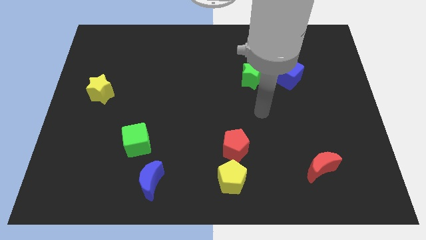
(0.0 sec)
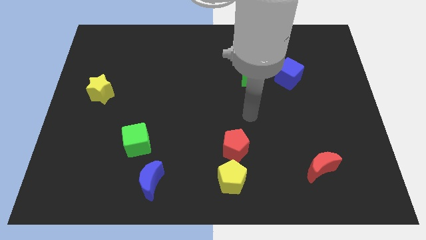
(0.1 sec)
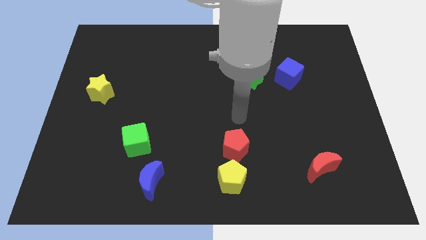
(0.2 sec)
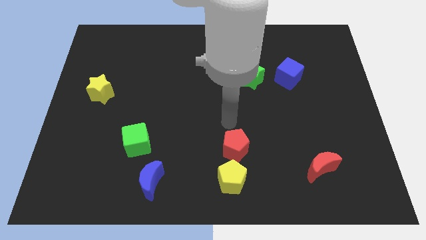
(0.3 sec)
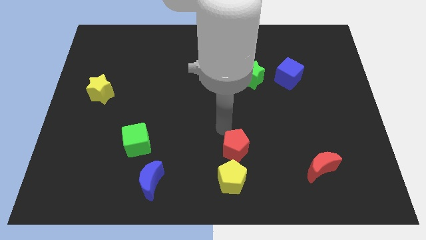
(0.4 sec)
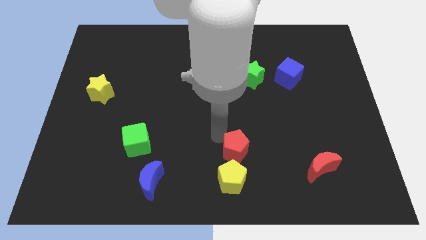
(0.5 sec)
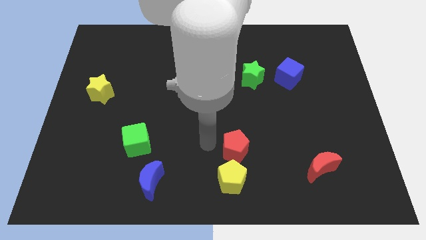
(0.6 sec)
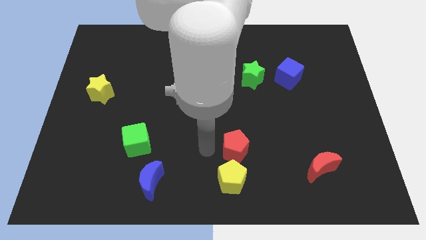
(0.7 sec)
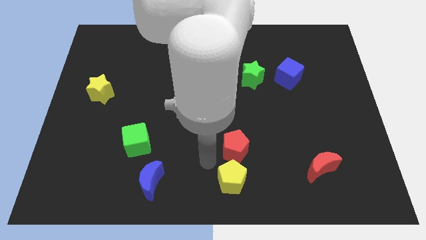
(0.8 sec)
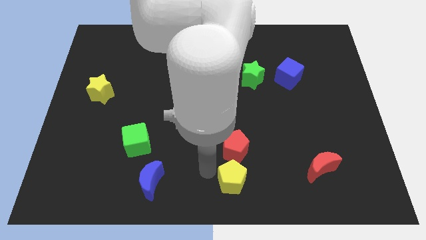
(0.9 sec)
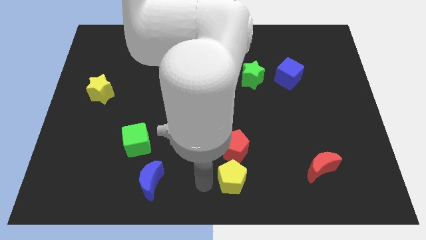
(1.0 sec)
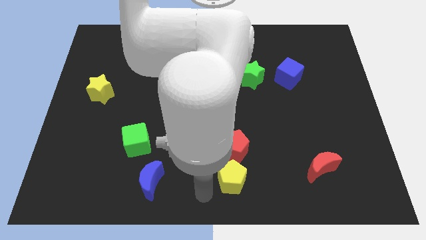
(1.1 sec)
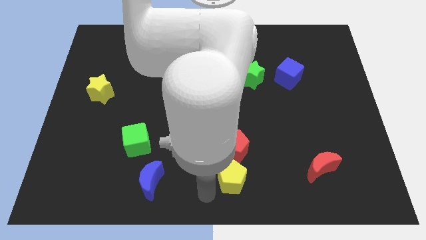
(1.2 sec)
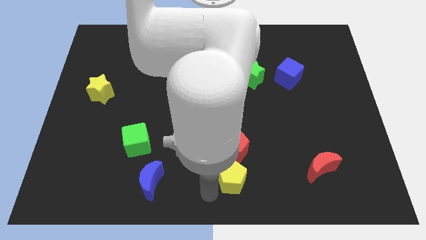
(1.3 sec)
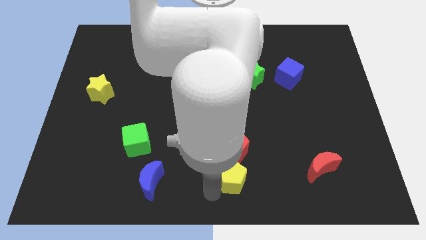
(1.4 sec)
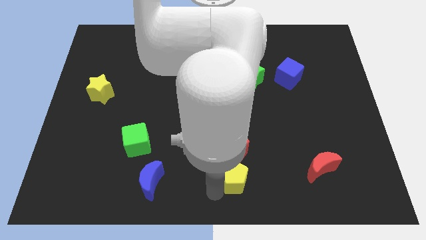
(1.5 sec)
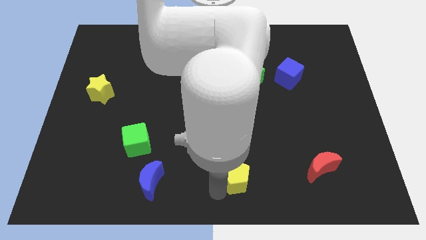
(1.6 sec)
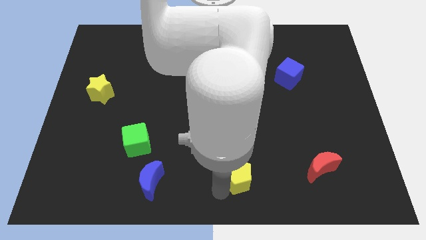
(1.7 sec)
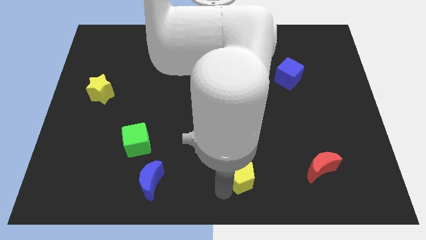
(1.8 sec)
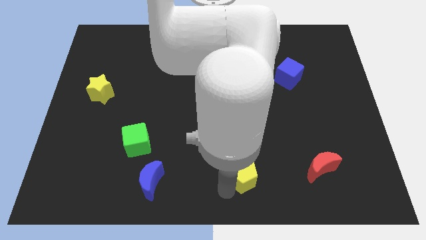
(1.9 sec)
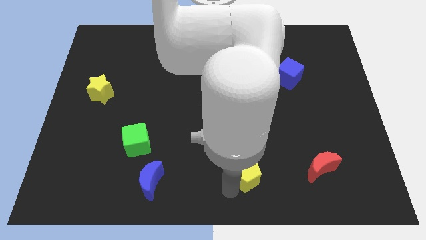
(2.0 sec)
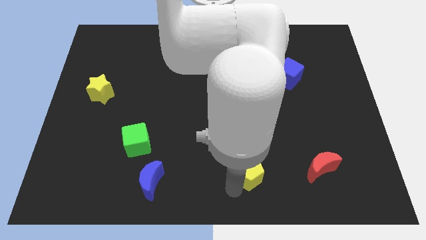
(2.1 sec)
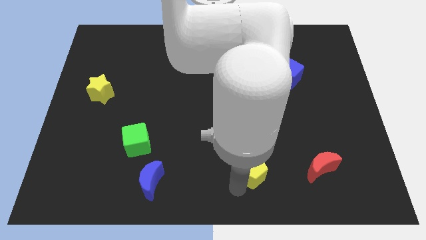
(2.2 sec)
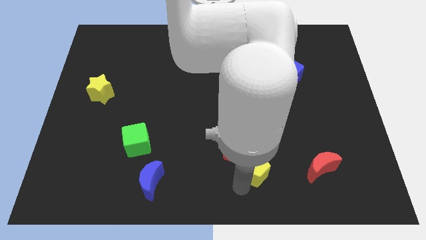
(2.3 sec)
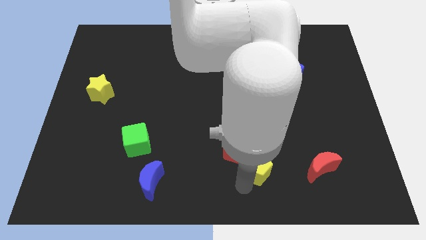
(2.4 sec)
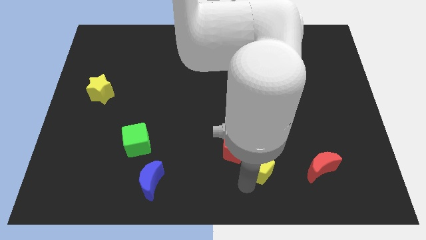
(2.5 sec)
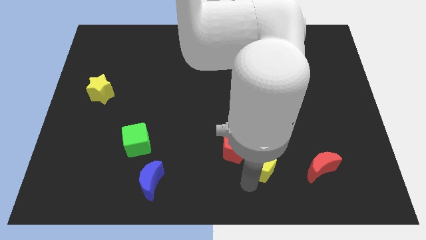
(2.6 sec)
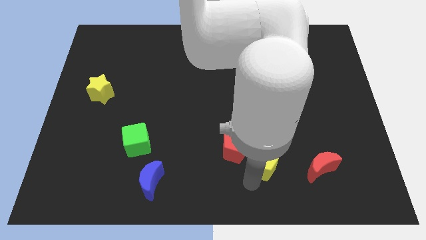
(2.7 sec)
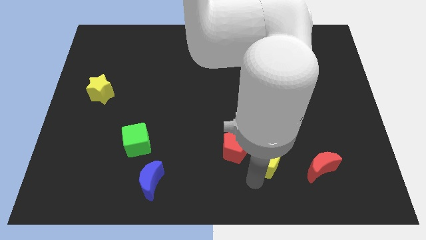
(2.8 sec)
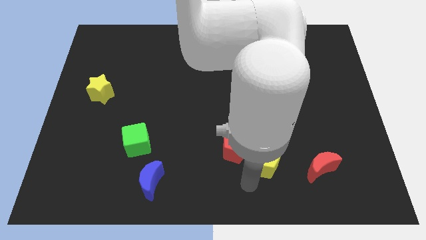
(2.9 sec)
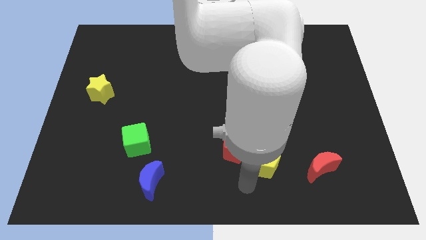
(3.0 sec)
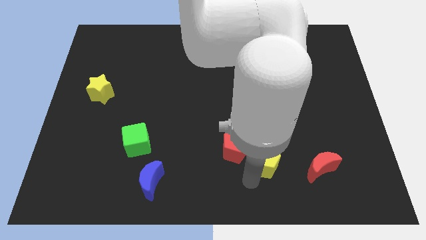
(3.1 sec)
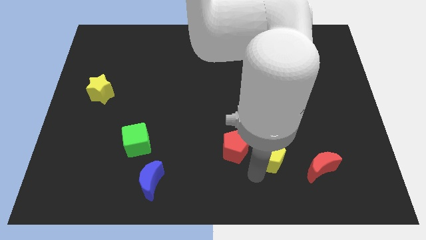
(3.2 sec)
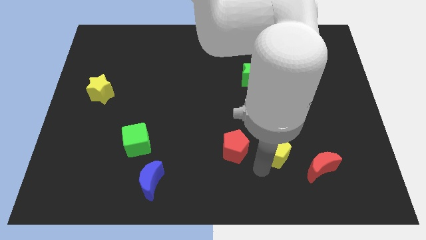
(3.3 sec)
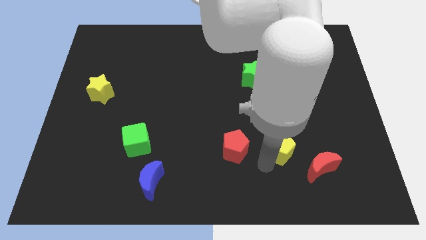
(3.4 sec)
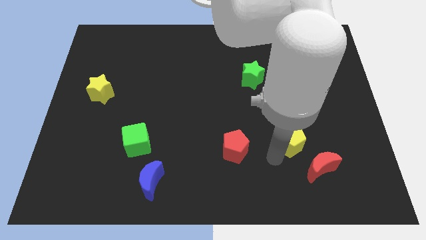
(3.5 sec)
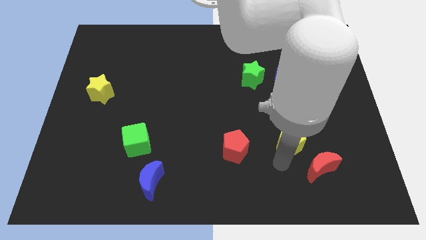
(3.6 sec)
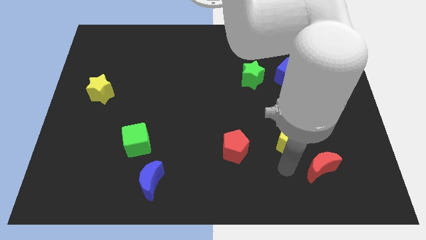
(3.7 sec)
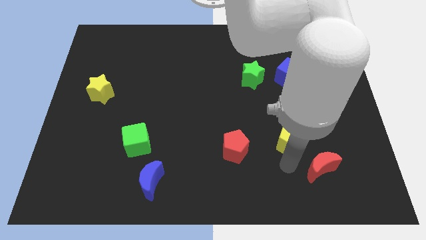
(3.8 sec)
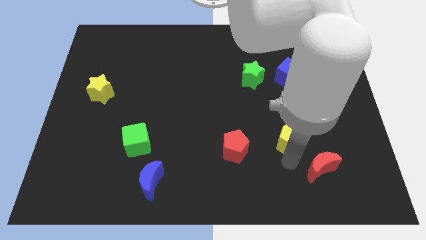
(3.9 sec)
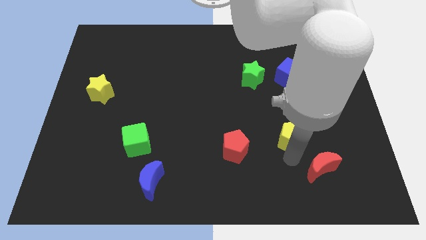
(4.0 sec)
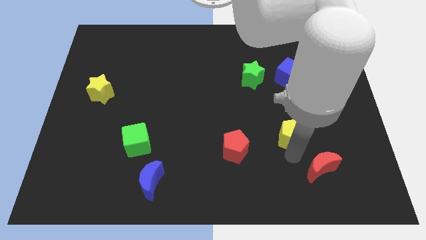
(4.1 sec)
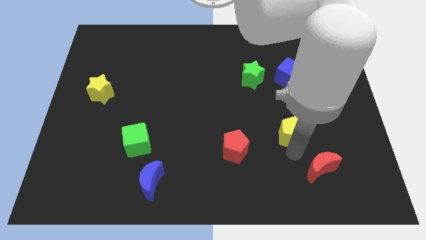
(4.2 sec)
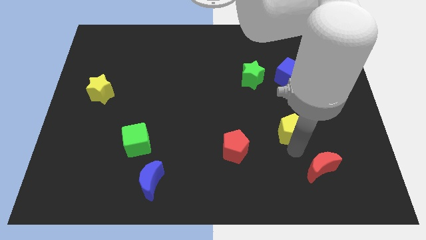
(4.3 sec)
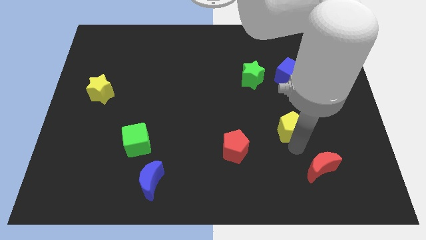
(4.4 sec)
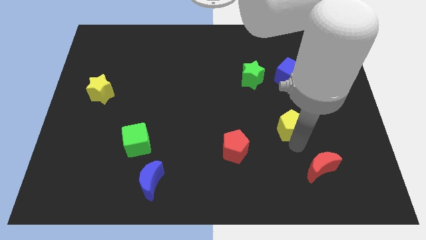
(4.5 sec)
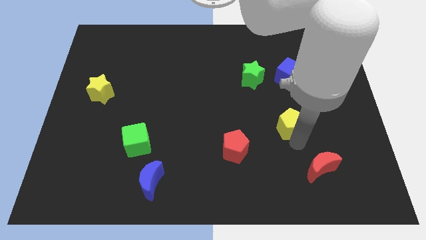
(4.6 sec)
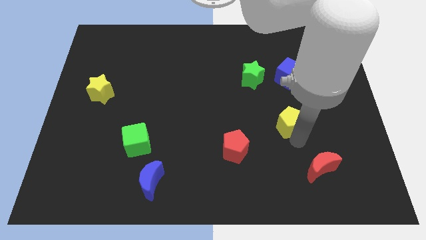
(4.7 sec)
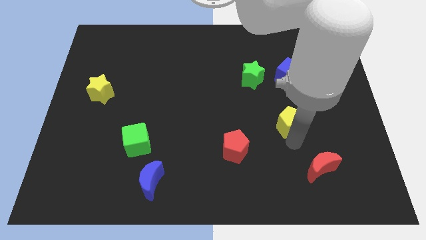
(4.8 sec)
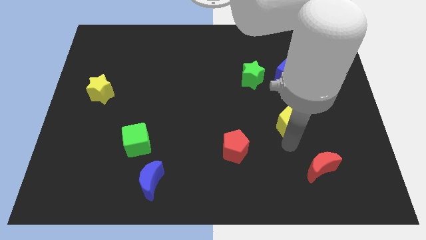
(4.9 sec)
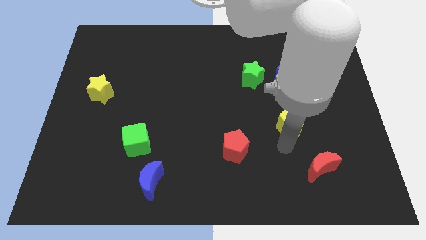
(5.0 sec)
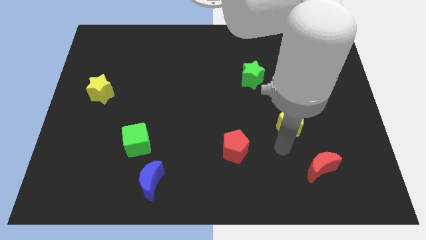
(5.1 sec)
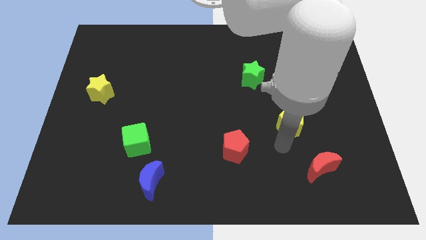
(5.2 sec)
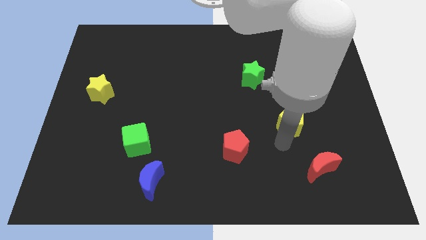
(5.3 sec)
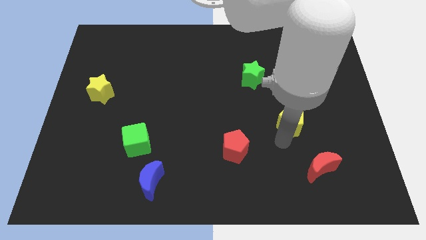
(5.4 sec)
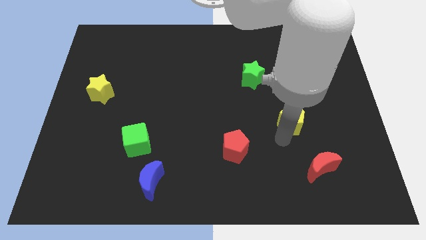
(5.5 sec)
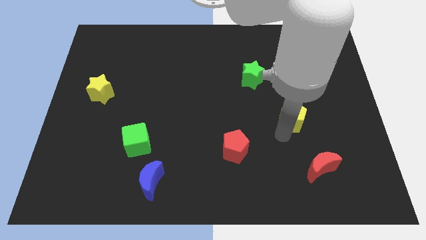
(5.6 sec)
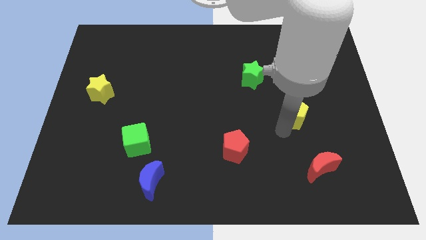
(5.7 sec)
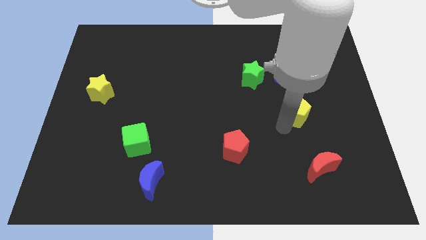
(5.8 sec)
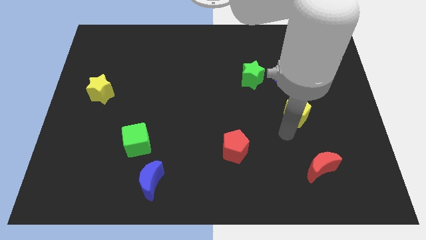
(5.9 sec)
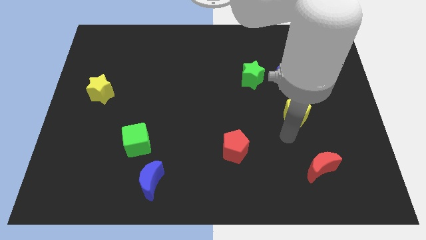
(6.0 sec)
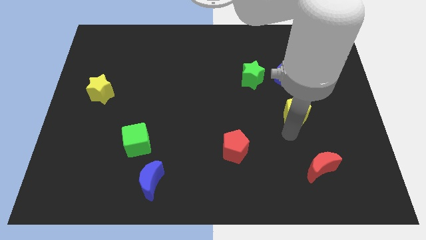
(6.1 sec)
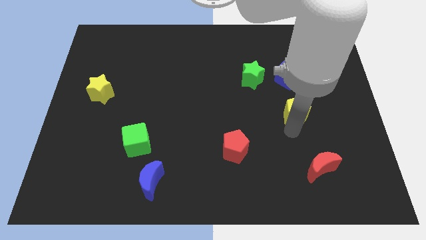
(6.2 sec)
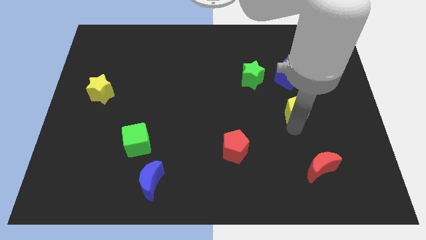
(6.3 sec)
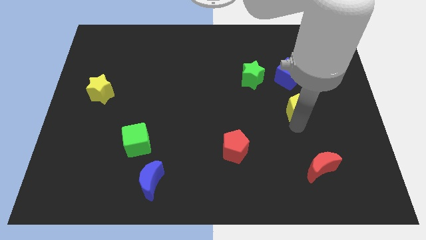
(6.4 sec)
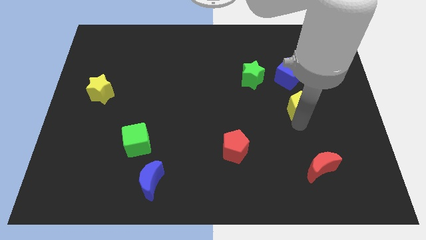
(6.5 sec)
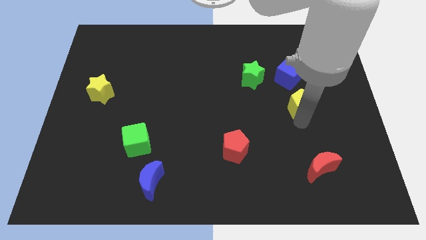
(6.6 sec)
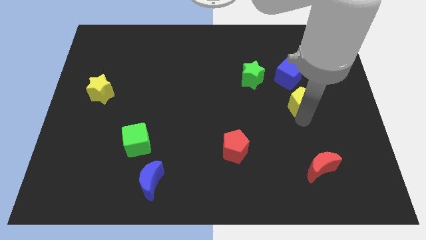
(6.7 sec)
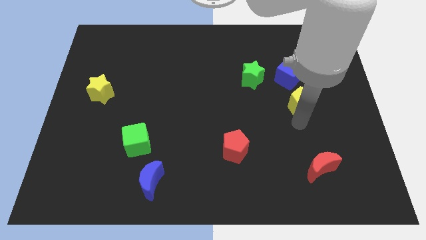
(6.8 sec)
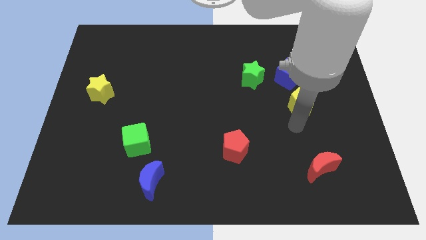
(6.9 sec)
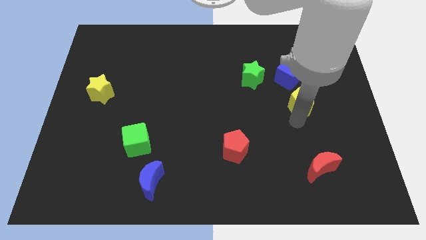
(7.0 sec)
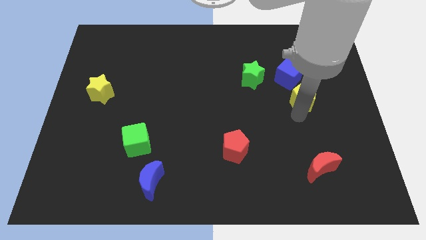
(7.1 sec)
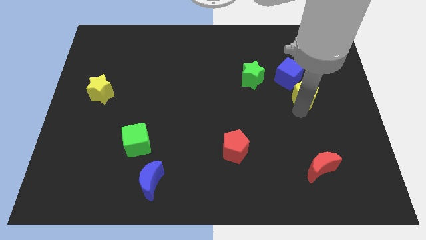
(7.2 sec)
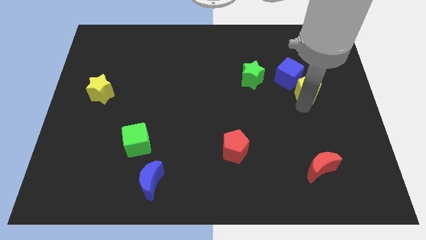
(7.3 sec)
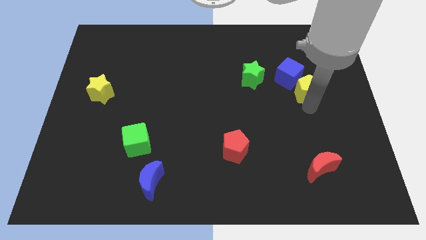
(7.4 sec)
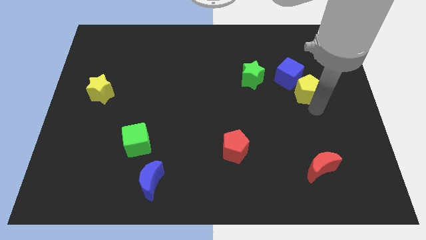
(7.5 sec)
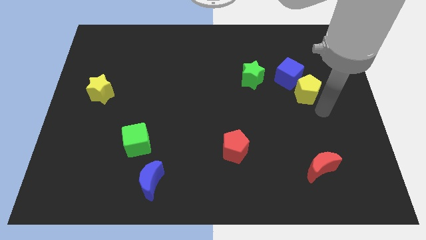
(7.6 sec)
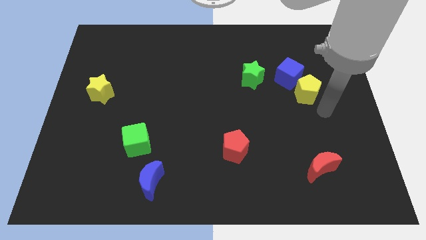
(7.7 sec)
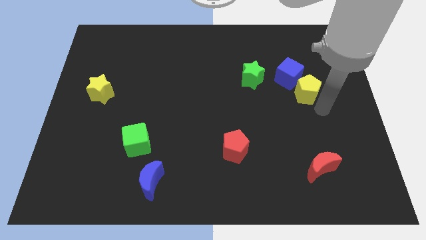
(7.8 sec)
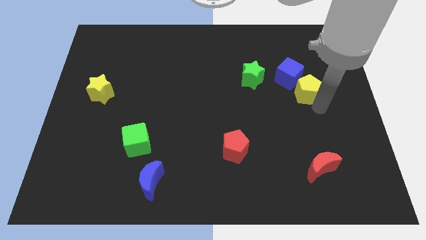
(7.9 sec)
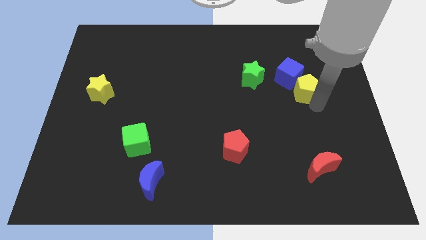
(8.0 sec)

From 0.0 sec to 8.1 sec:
push the yellow pentagon to the right of the green star
